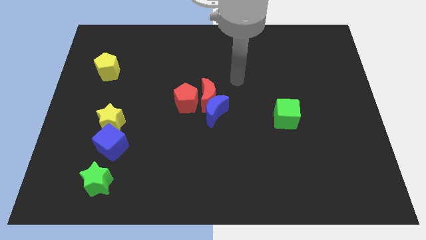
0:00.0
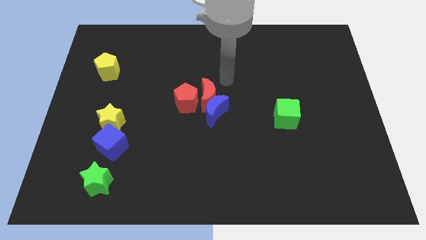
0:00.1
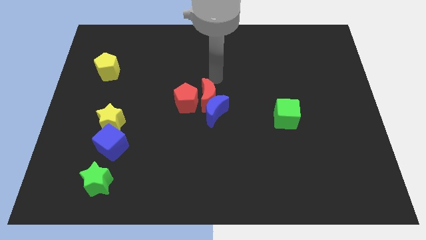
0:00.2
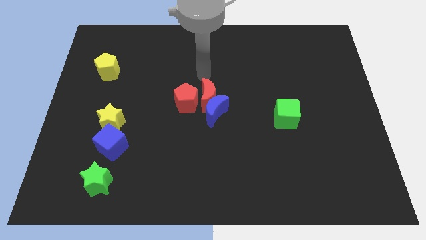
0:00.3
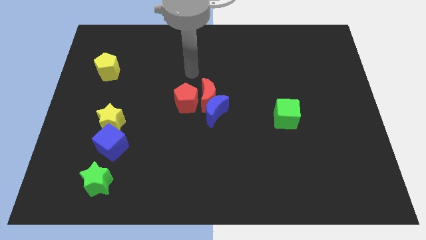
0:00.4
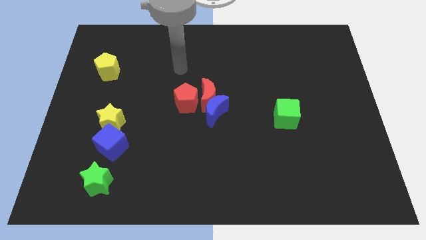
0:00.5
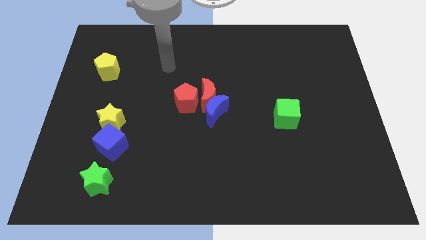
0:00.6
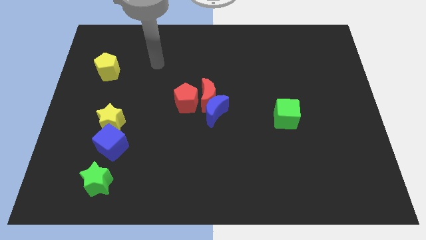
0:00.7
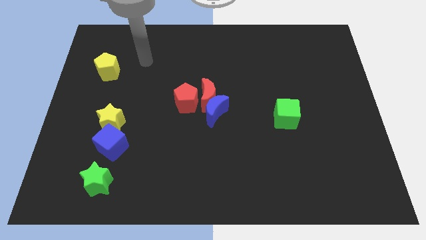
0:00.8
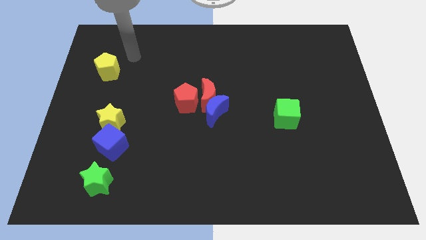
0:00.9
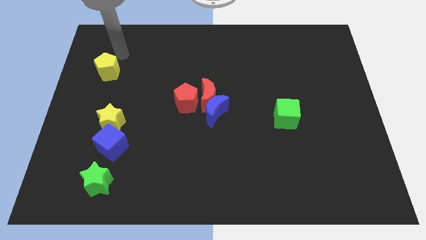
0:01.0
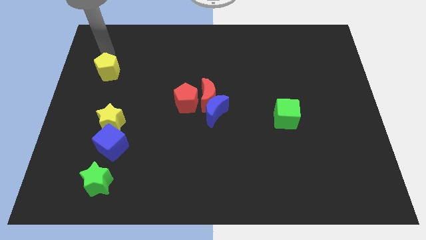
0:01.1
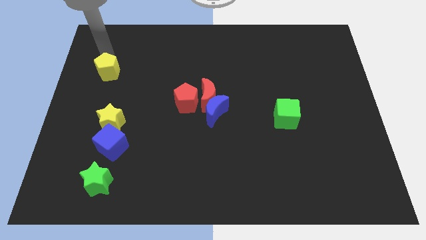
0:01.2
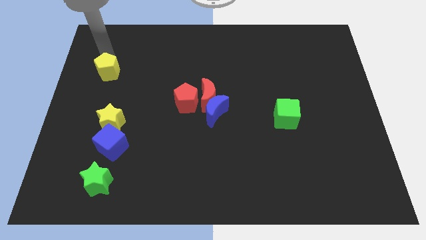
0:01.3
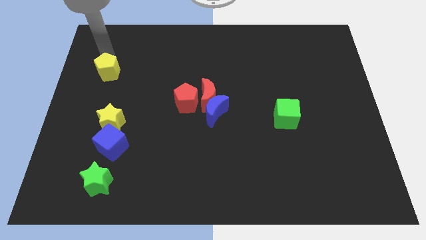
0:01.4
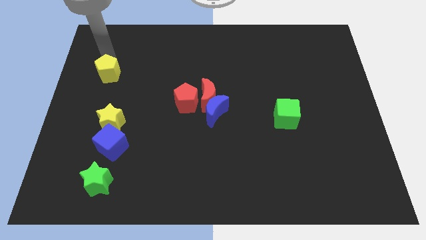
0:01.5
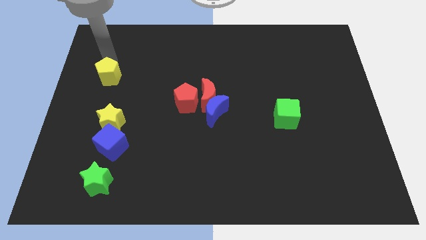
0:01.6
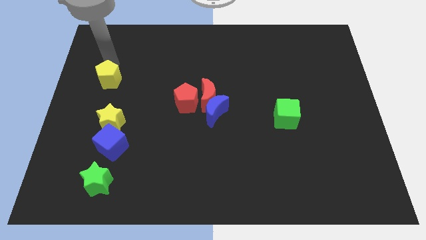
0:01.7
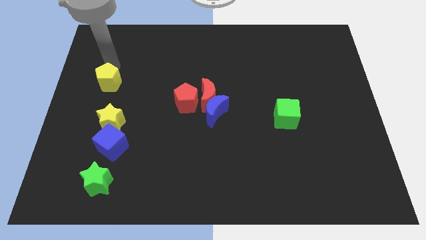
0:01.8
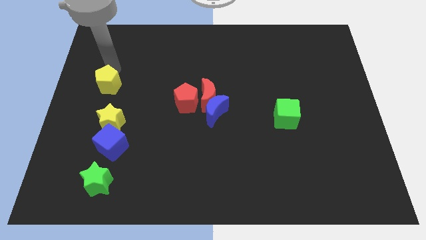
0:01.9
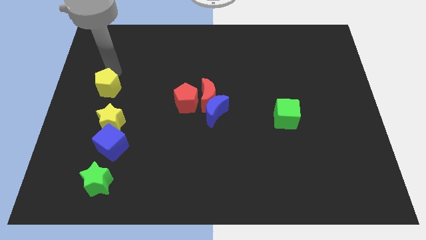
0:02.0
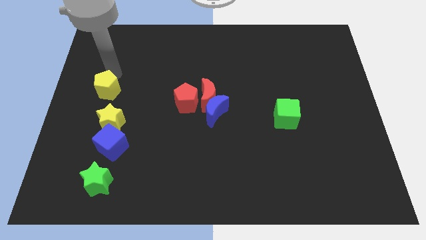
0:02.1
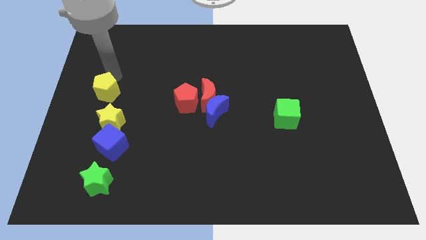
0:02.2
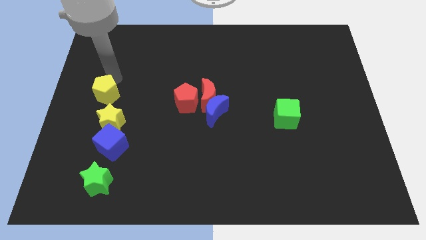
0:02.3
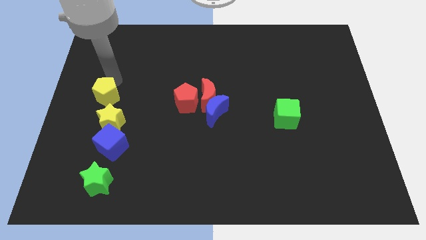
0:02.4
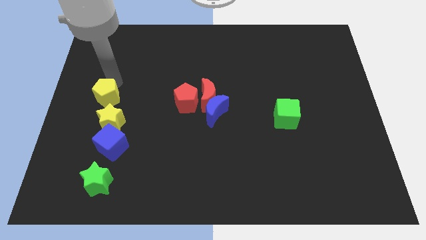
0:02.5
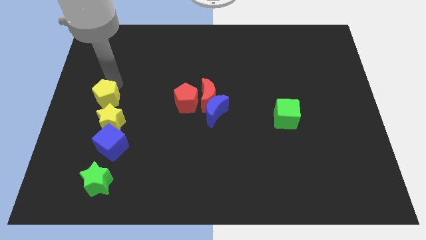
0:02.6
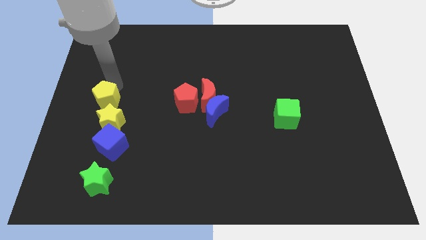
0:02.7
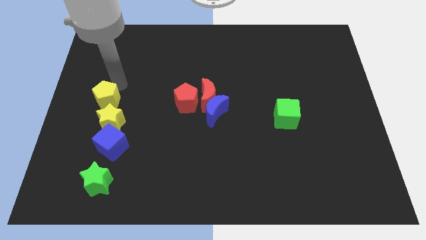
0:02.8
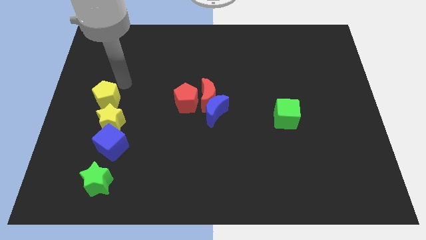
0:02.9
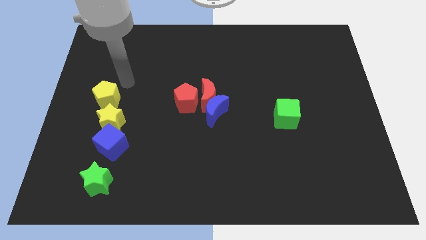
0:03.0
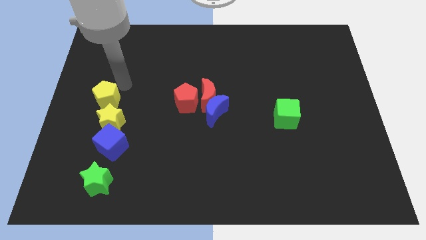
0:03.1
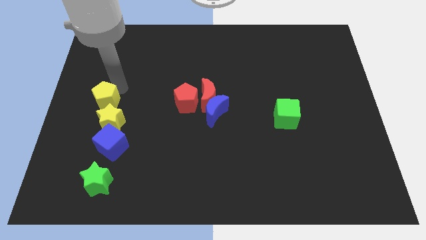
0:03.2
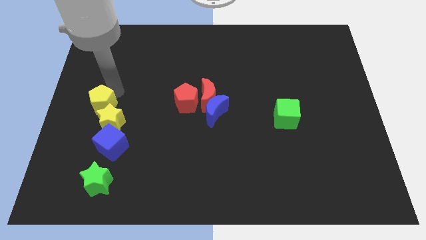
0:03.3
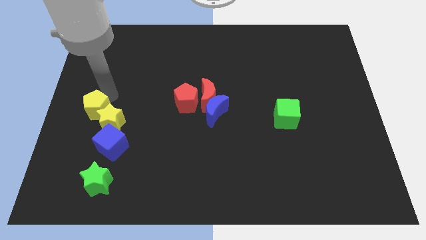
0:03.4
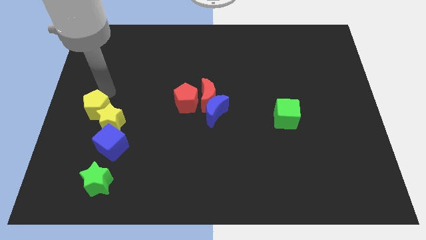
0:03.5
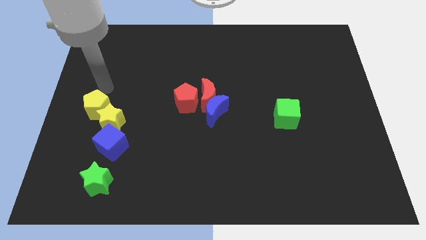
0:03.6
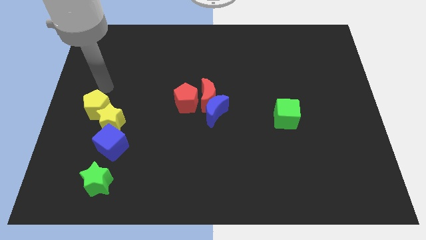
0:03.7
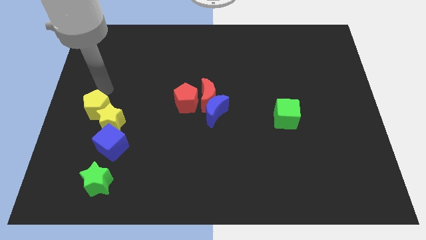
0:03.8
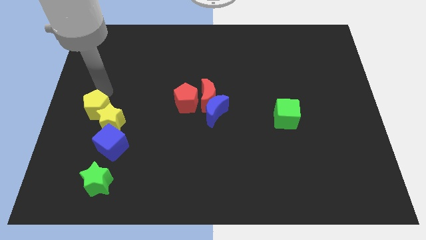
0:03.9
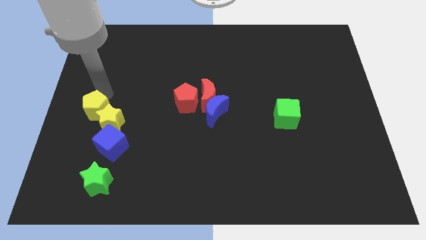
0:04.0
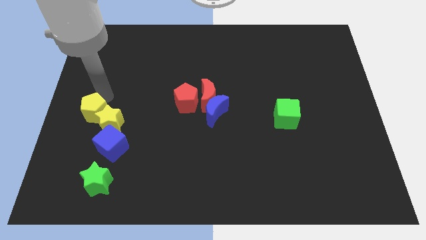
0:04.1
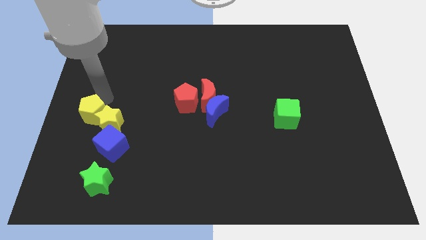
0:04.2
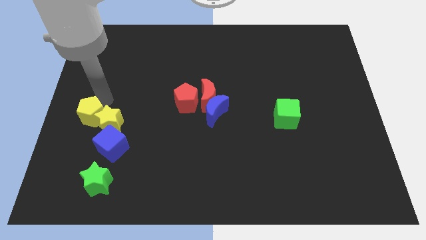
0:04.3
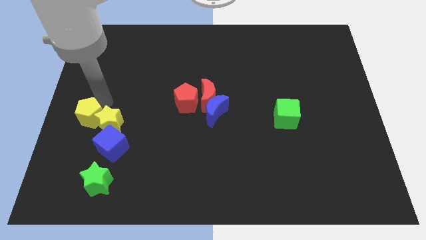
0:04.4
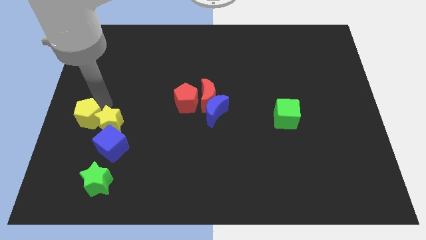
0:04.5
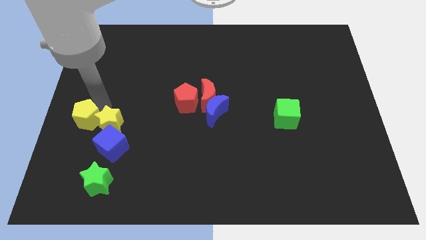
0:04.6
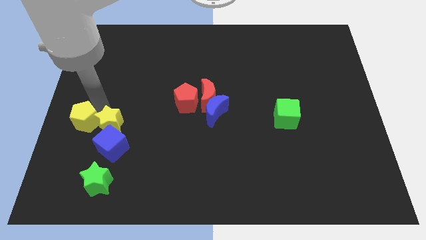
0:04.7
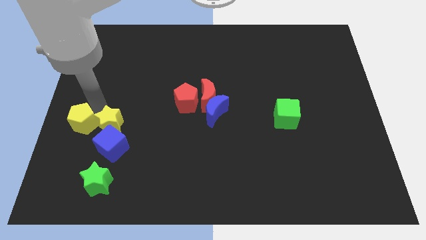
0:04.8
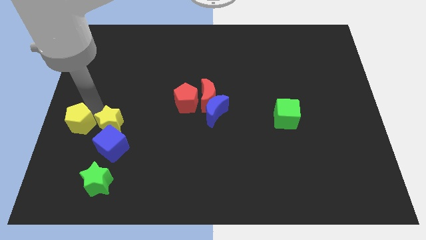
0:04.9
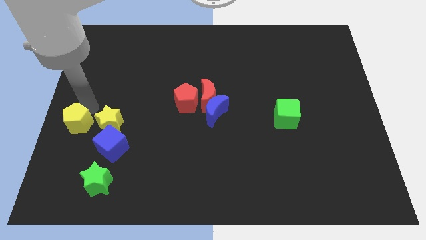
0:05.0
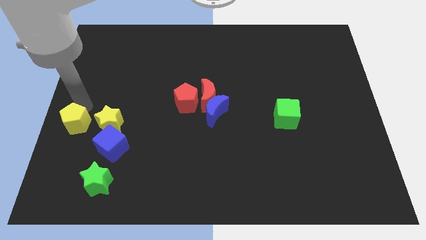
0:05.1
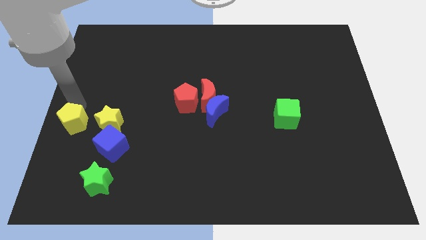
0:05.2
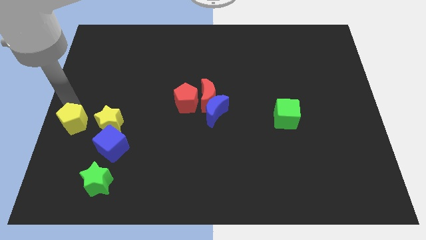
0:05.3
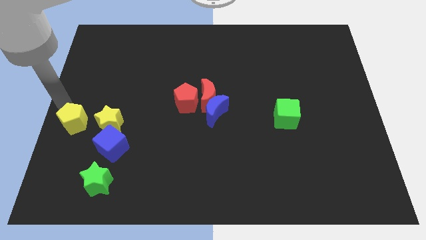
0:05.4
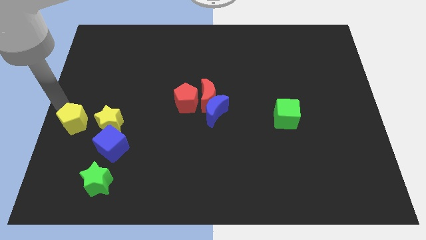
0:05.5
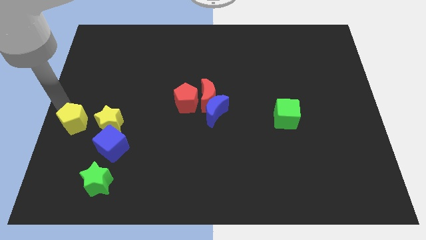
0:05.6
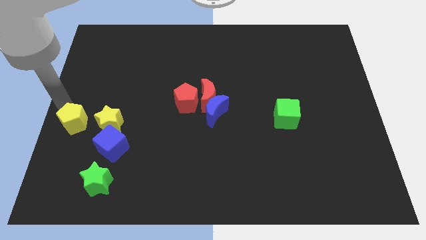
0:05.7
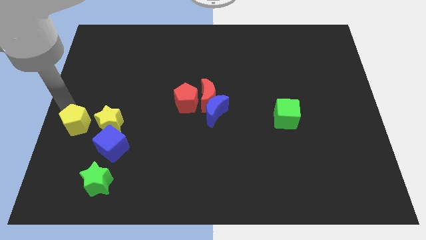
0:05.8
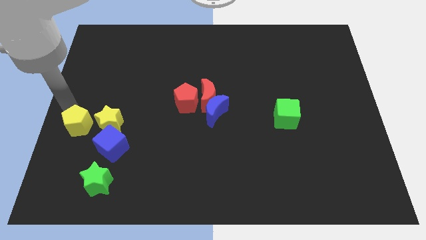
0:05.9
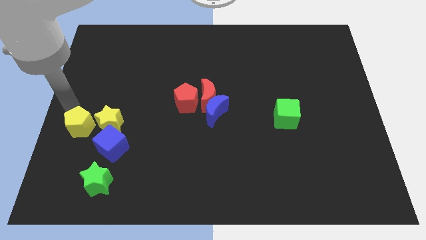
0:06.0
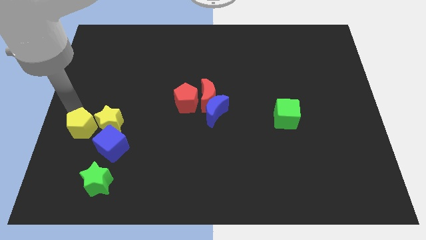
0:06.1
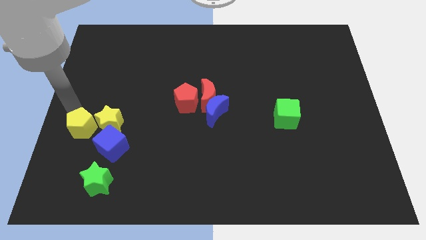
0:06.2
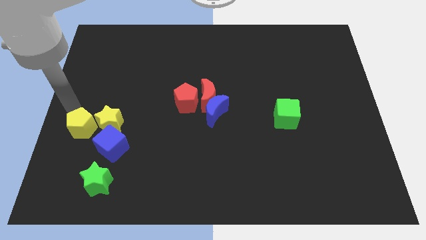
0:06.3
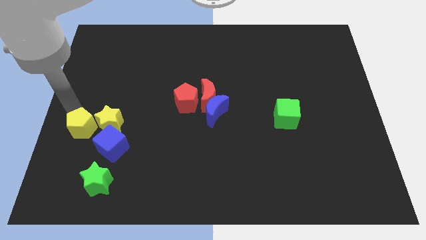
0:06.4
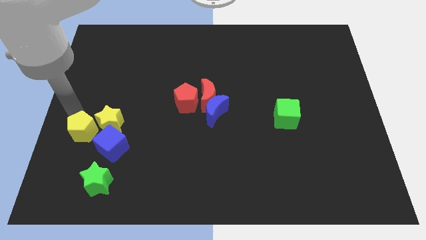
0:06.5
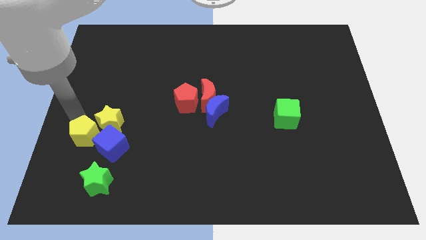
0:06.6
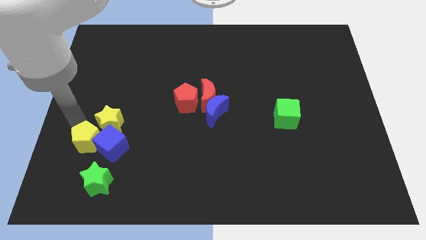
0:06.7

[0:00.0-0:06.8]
put the yellow pentagon towards the blue cube
